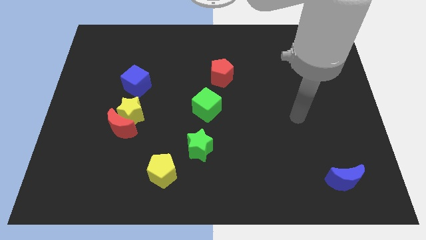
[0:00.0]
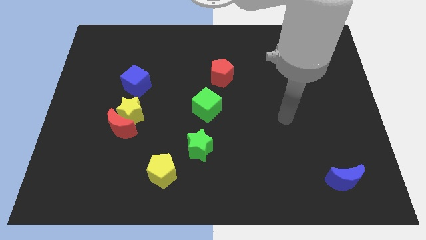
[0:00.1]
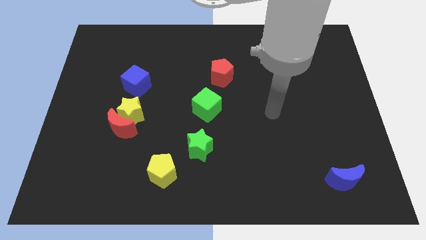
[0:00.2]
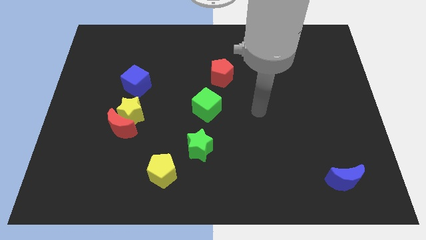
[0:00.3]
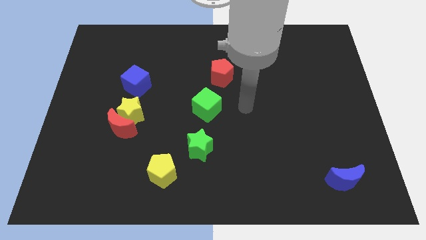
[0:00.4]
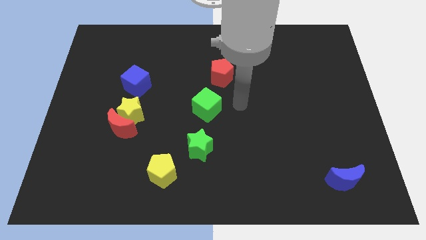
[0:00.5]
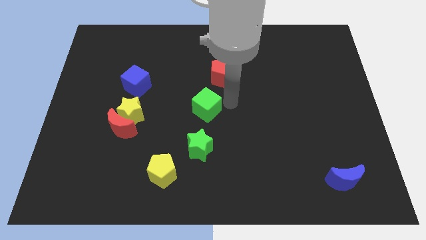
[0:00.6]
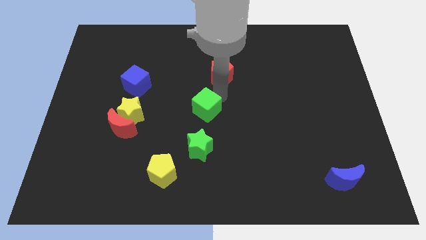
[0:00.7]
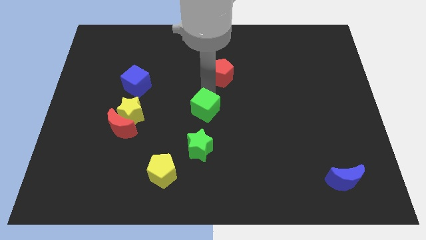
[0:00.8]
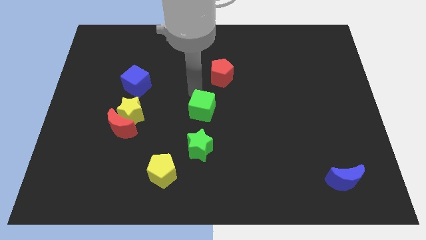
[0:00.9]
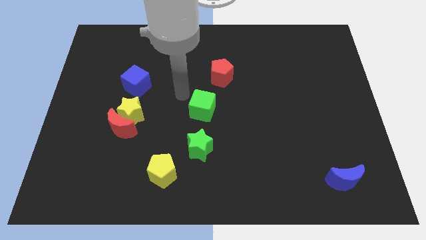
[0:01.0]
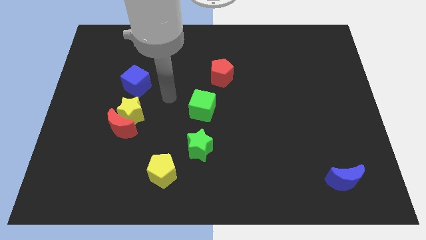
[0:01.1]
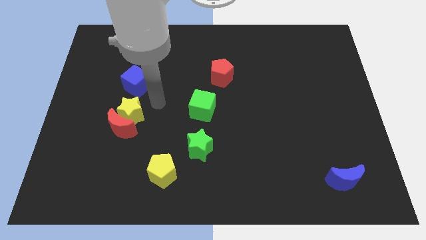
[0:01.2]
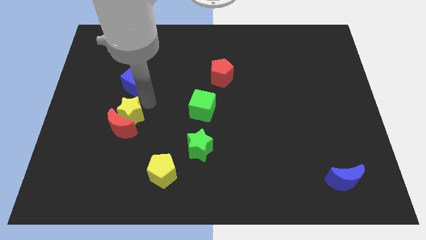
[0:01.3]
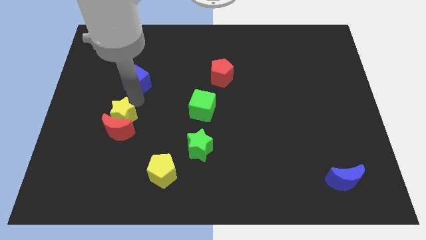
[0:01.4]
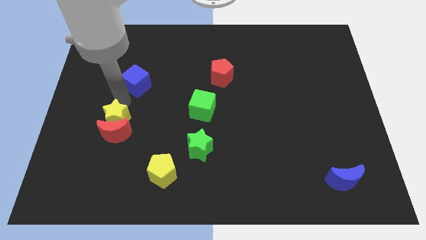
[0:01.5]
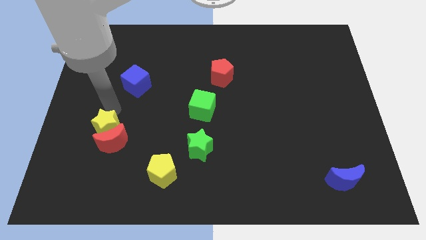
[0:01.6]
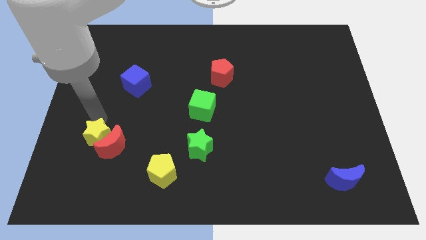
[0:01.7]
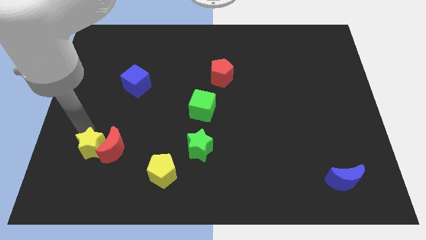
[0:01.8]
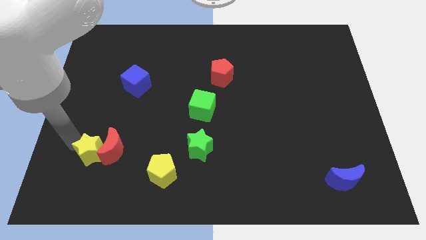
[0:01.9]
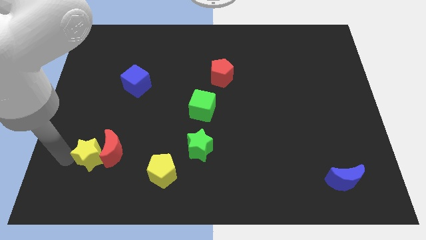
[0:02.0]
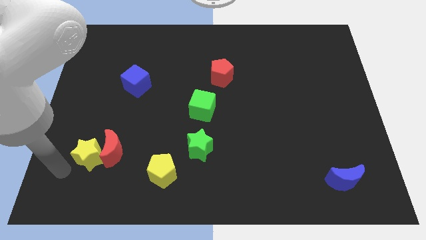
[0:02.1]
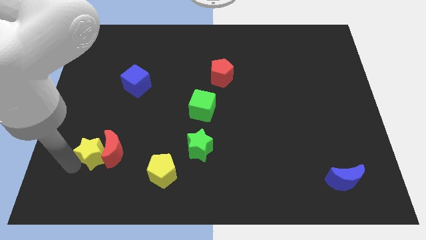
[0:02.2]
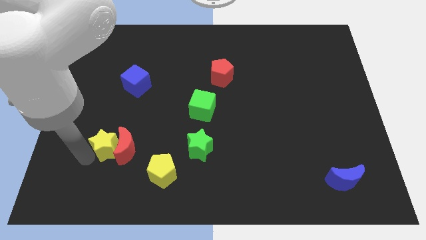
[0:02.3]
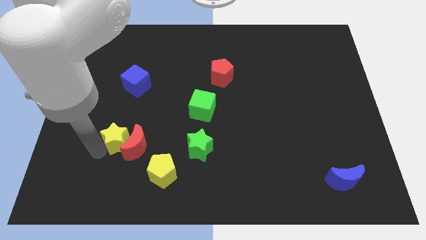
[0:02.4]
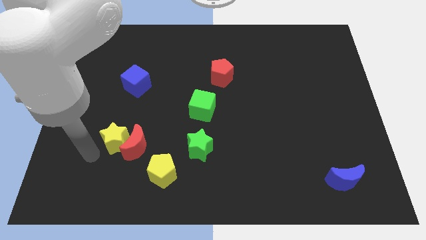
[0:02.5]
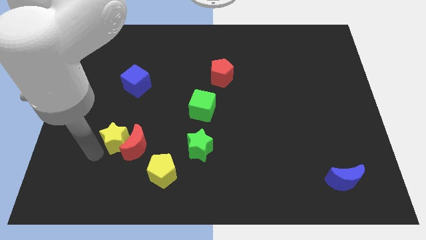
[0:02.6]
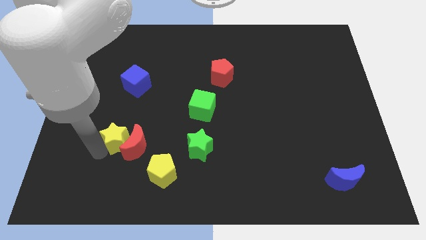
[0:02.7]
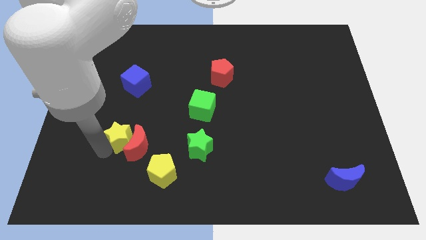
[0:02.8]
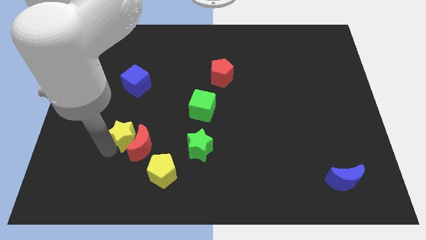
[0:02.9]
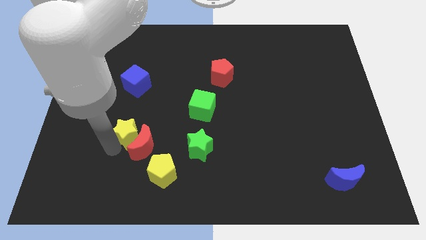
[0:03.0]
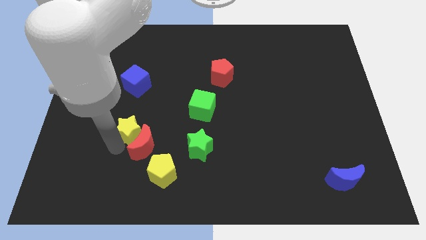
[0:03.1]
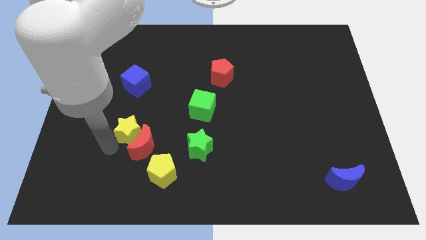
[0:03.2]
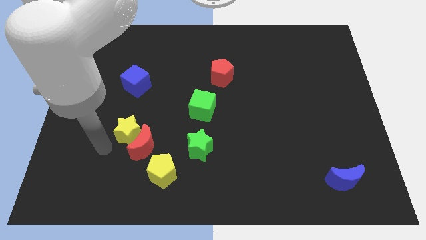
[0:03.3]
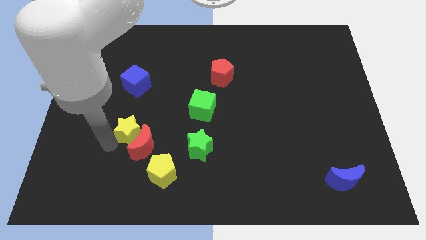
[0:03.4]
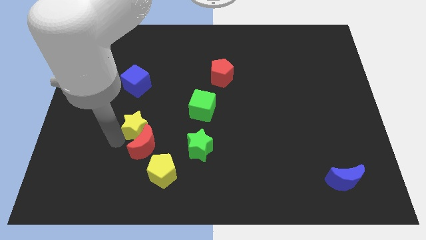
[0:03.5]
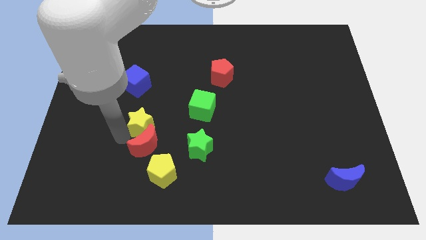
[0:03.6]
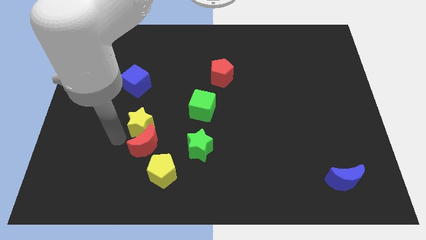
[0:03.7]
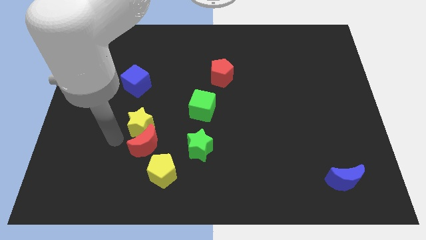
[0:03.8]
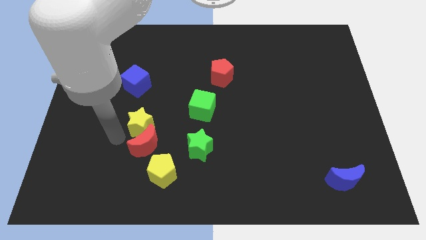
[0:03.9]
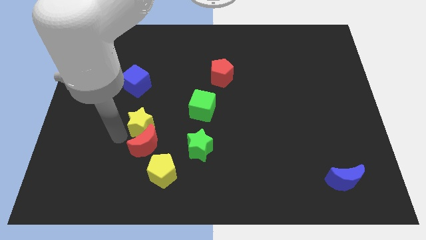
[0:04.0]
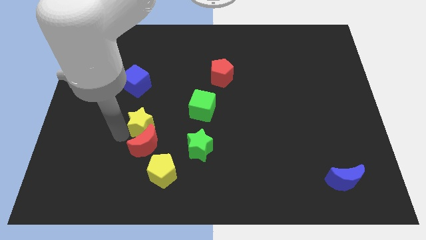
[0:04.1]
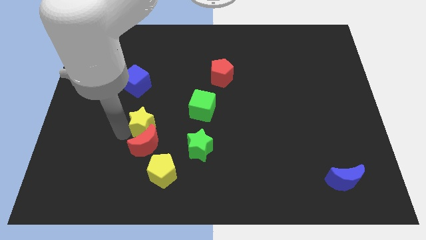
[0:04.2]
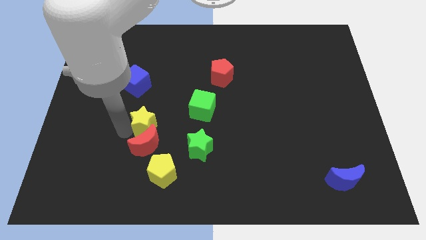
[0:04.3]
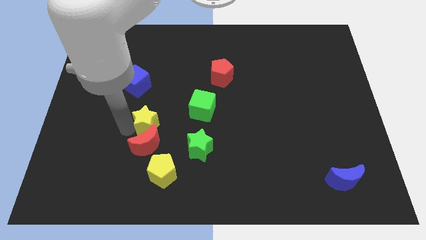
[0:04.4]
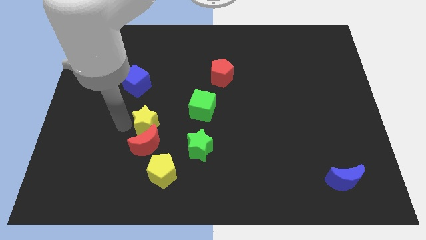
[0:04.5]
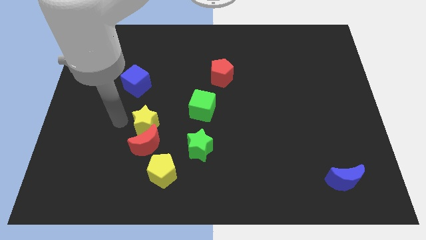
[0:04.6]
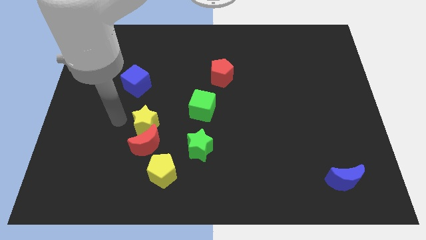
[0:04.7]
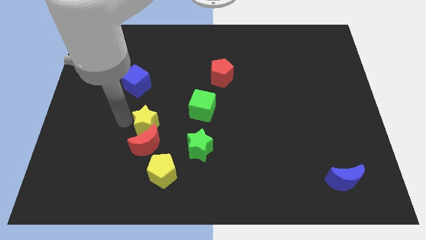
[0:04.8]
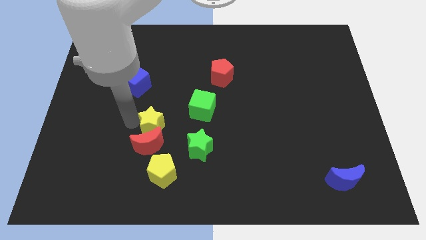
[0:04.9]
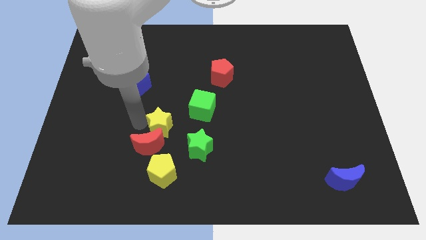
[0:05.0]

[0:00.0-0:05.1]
slide the yellow star to the top left of the green star

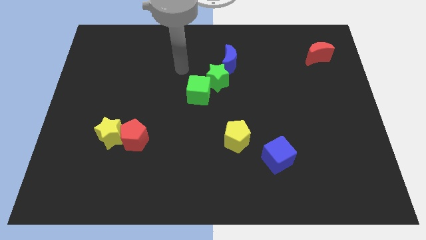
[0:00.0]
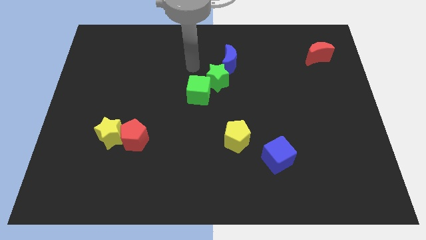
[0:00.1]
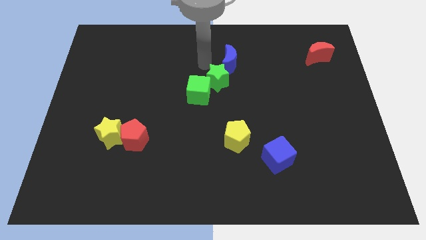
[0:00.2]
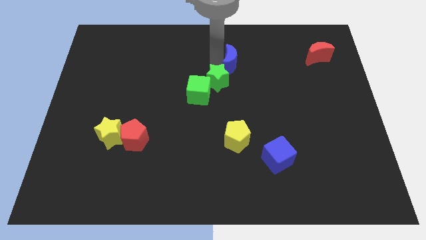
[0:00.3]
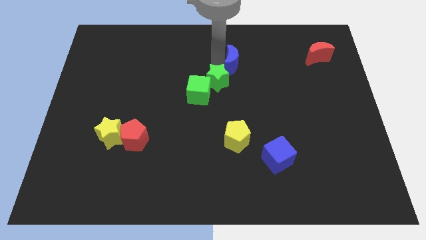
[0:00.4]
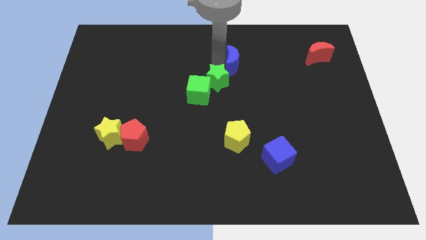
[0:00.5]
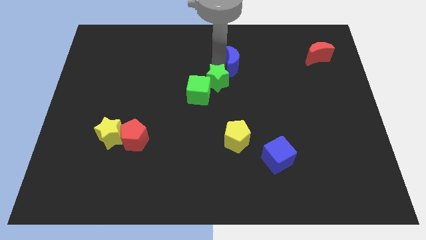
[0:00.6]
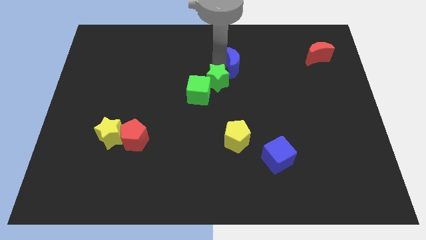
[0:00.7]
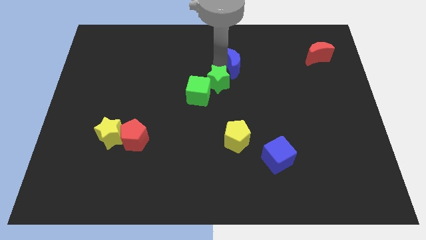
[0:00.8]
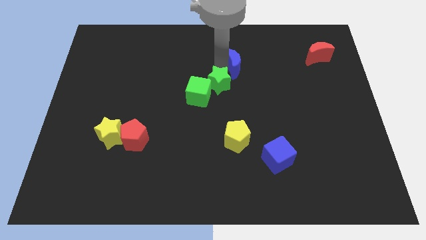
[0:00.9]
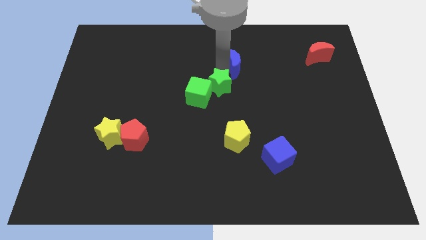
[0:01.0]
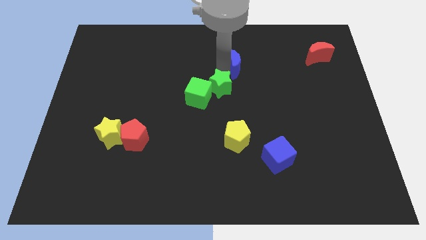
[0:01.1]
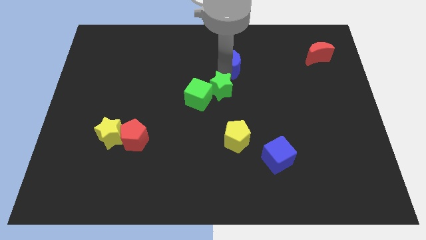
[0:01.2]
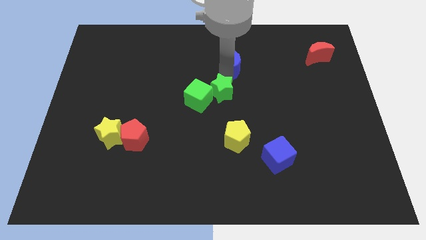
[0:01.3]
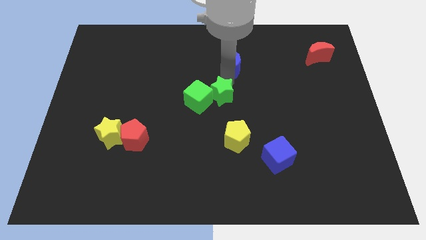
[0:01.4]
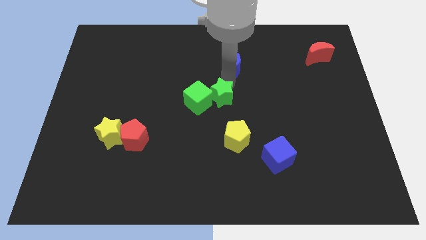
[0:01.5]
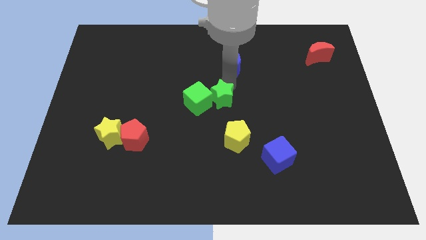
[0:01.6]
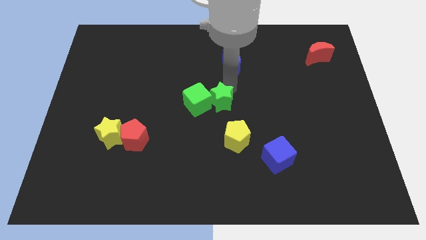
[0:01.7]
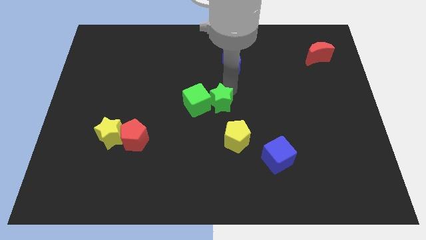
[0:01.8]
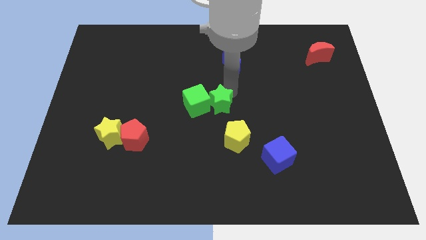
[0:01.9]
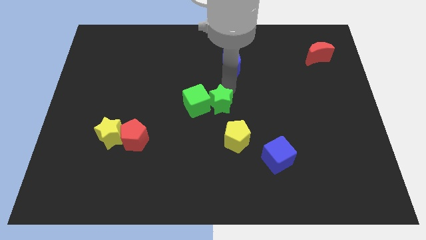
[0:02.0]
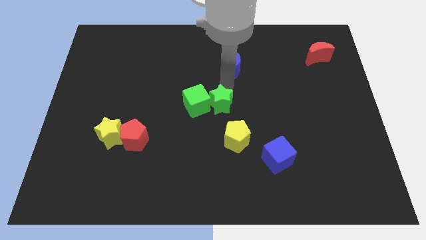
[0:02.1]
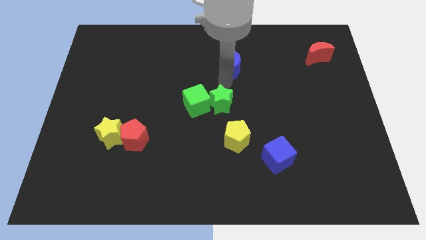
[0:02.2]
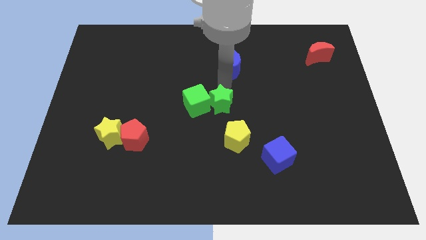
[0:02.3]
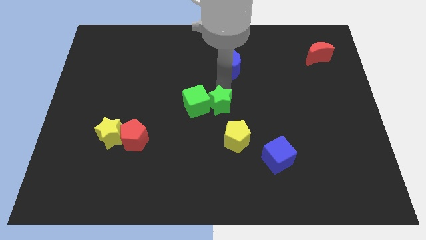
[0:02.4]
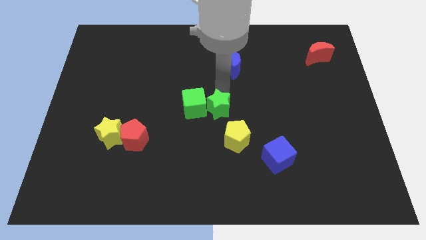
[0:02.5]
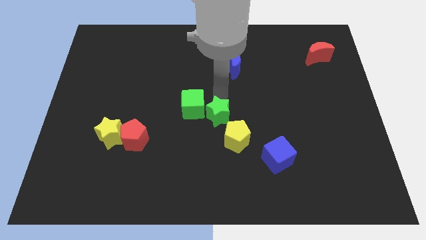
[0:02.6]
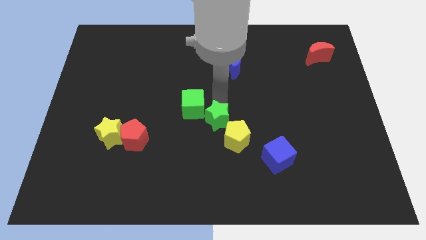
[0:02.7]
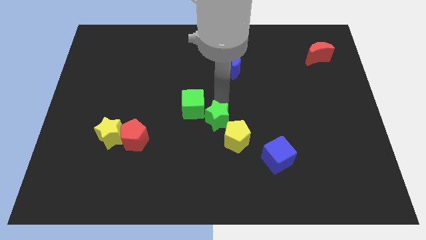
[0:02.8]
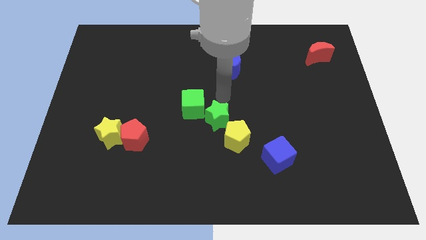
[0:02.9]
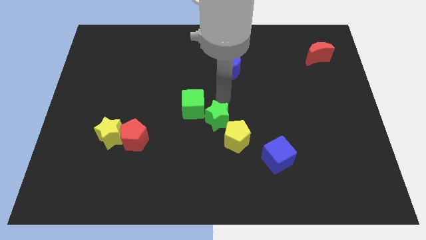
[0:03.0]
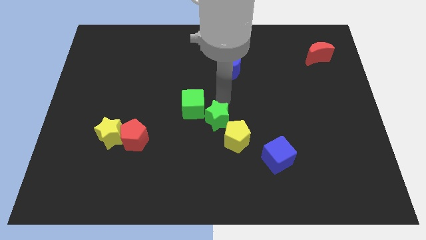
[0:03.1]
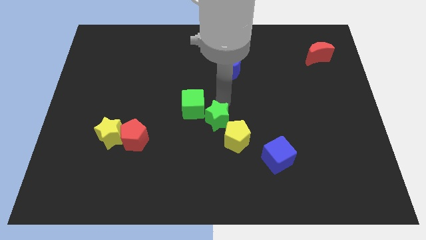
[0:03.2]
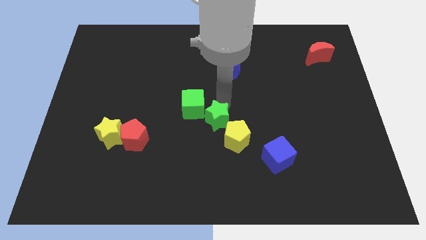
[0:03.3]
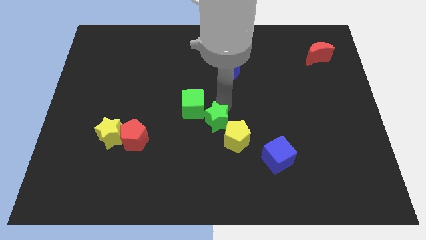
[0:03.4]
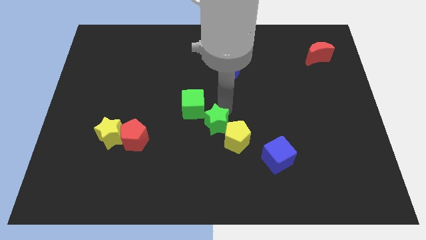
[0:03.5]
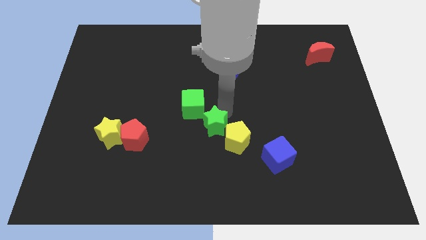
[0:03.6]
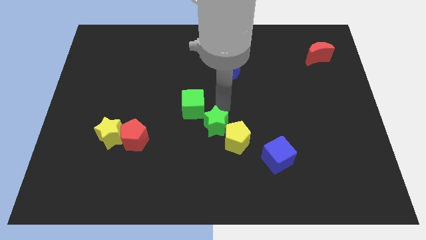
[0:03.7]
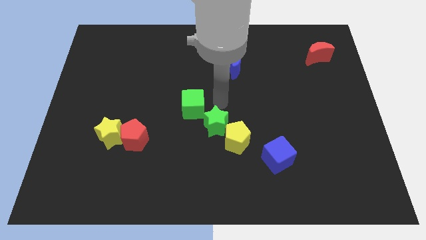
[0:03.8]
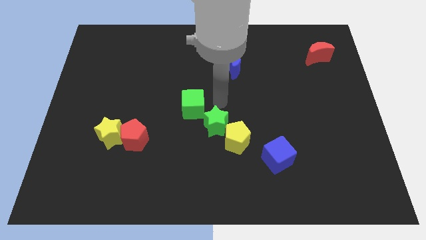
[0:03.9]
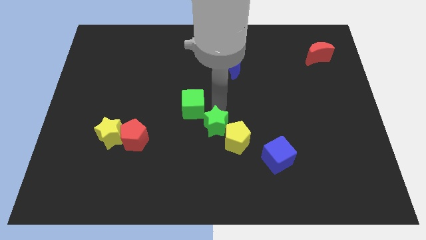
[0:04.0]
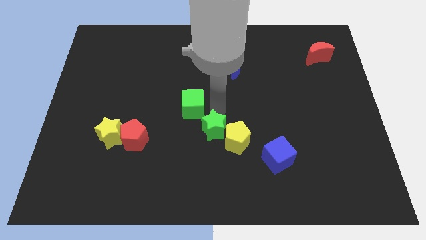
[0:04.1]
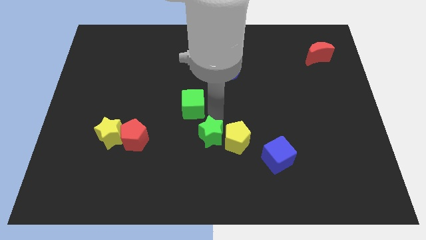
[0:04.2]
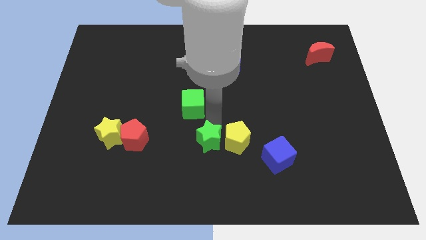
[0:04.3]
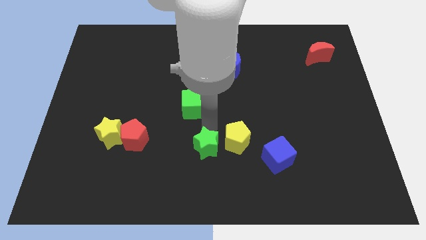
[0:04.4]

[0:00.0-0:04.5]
put the green star to the left of the blue cube
